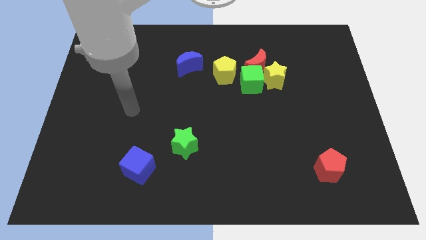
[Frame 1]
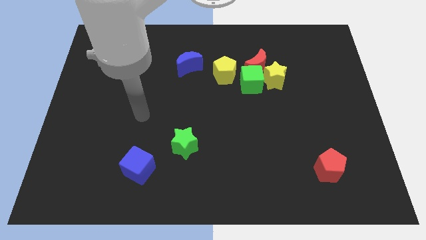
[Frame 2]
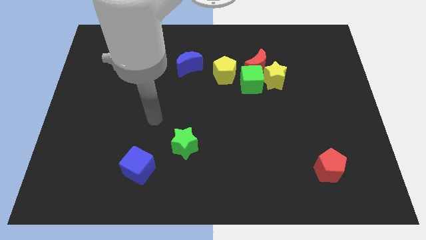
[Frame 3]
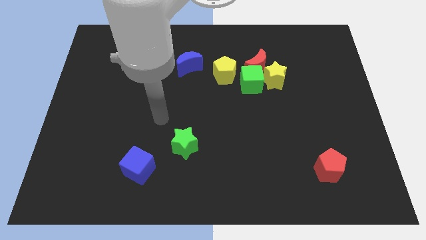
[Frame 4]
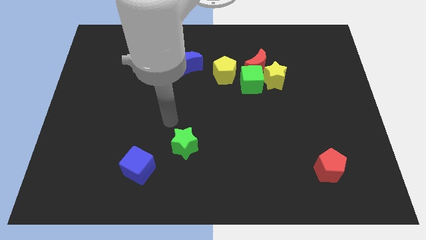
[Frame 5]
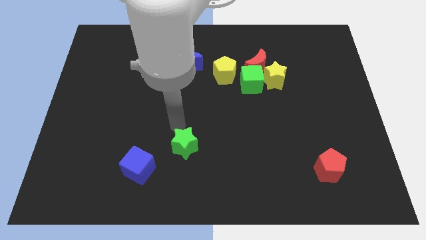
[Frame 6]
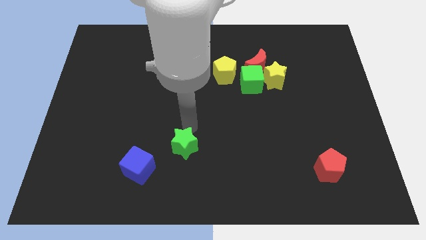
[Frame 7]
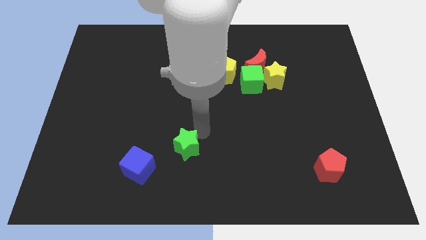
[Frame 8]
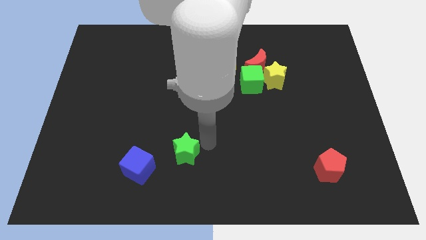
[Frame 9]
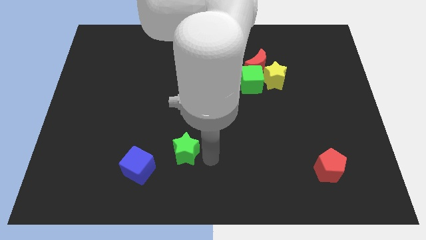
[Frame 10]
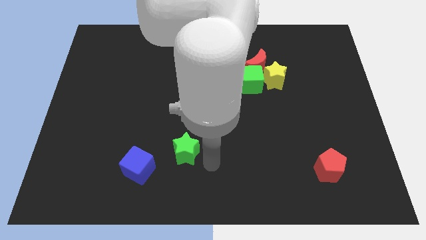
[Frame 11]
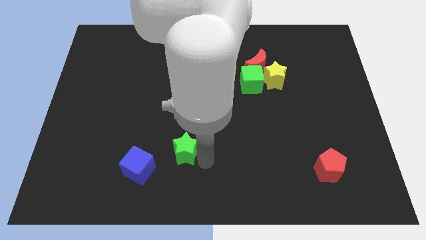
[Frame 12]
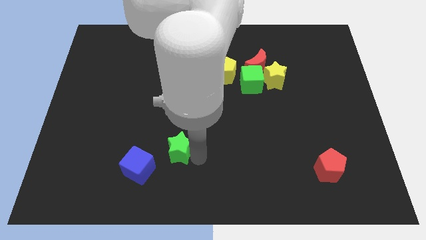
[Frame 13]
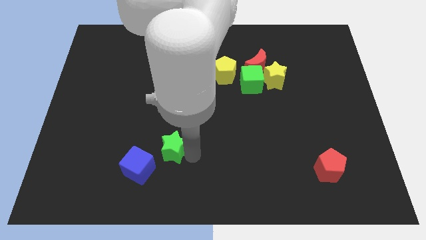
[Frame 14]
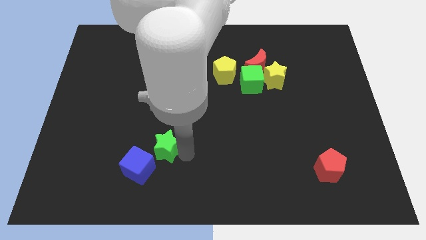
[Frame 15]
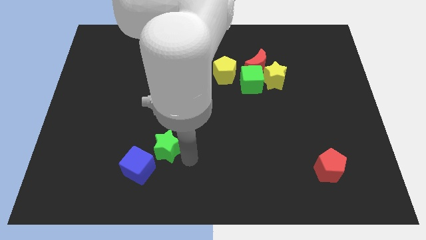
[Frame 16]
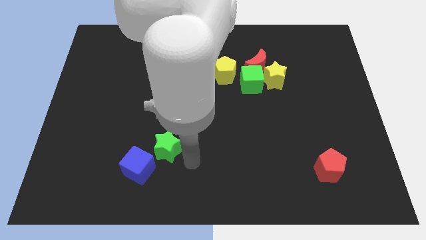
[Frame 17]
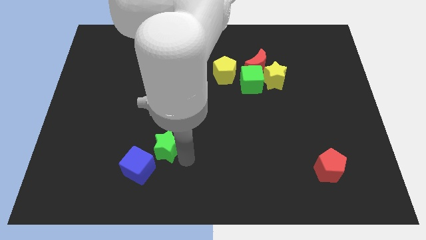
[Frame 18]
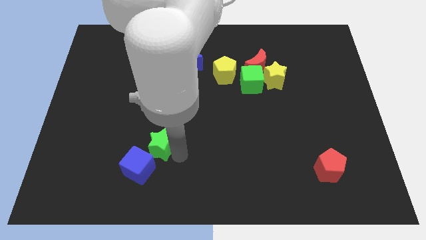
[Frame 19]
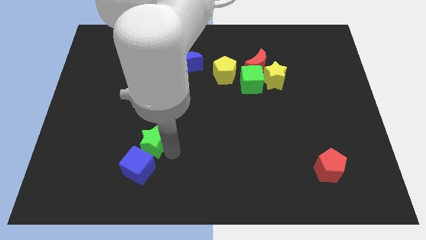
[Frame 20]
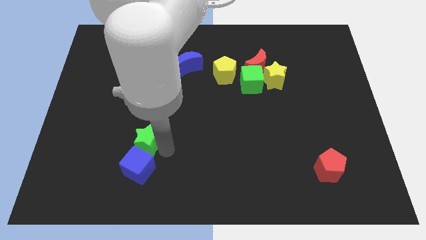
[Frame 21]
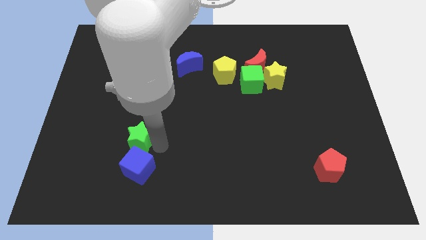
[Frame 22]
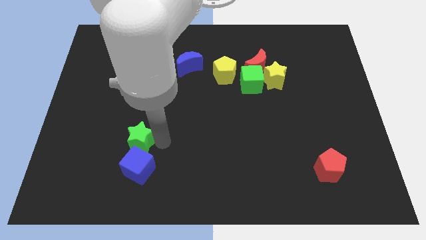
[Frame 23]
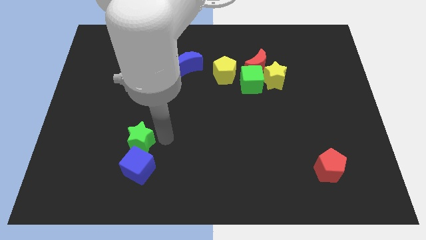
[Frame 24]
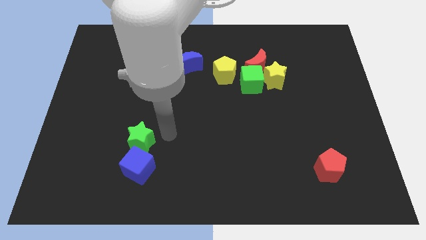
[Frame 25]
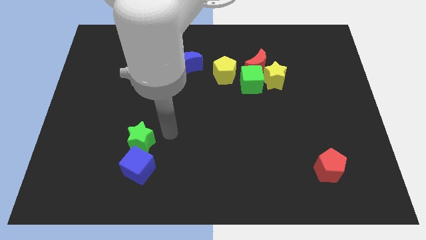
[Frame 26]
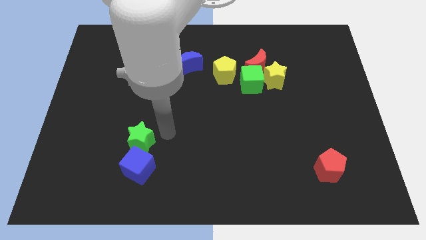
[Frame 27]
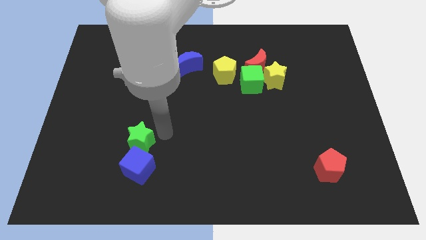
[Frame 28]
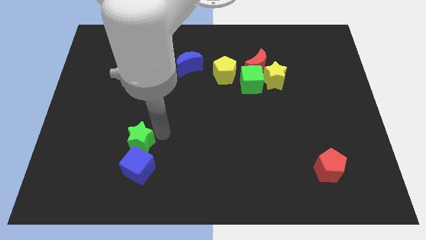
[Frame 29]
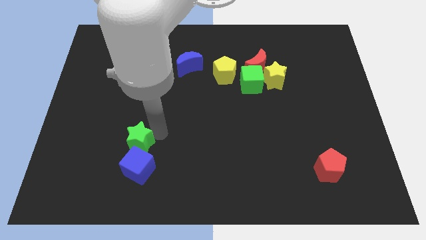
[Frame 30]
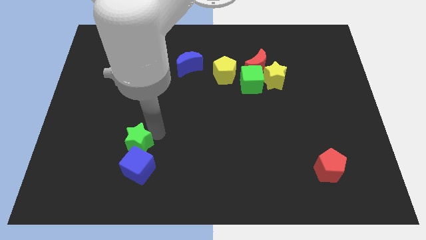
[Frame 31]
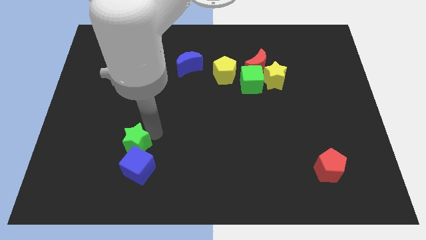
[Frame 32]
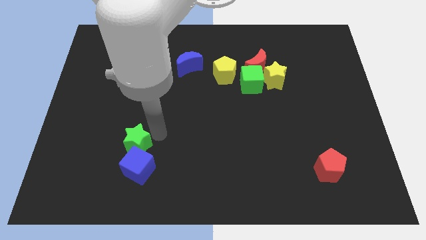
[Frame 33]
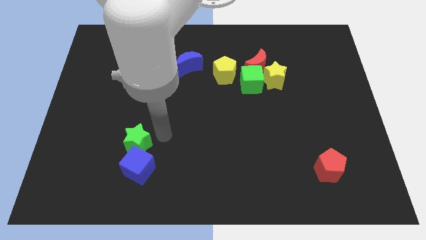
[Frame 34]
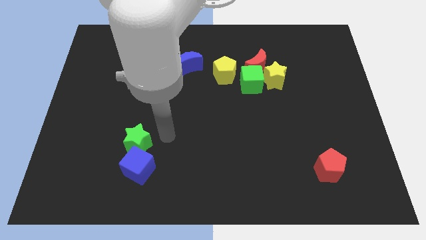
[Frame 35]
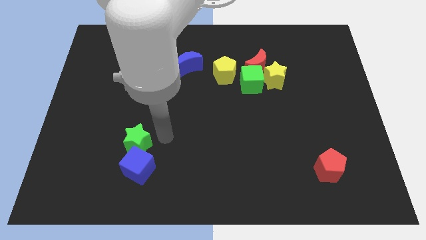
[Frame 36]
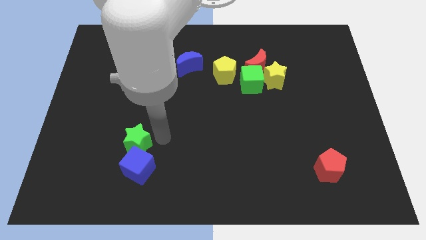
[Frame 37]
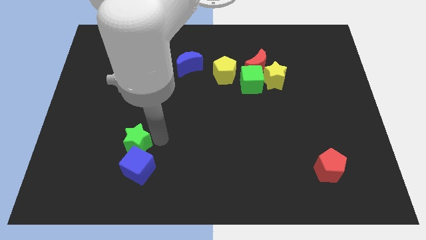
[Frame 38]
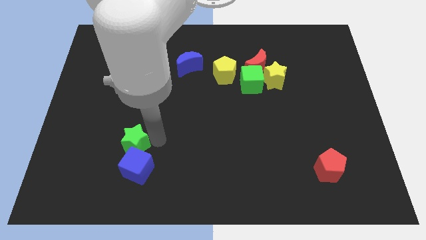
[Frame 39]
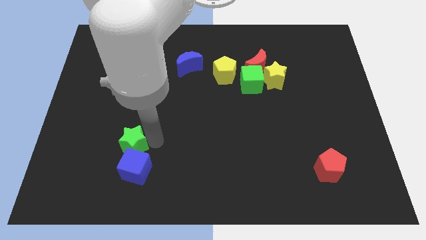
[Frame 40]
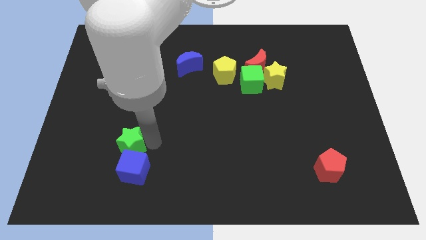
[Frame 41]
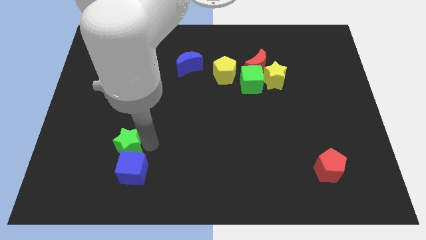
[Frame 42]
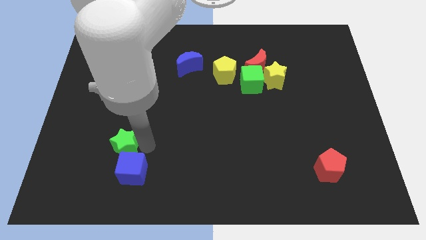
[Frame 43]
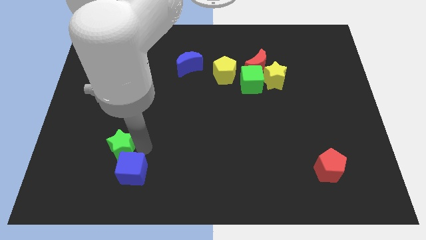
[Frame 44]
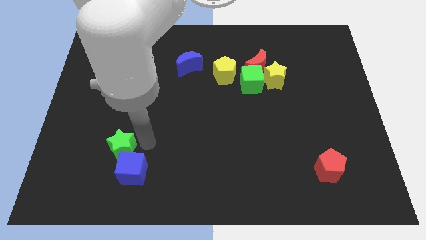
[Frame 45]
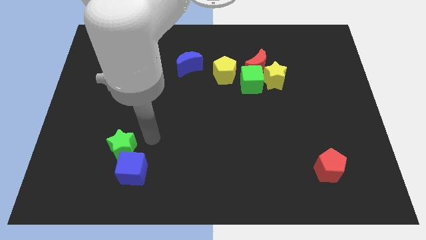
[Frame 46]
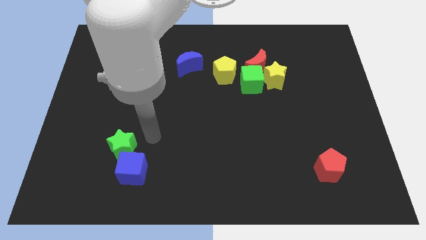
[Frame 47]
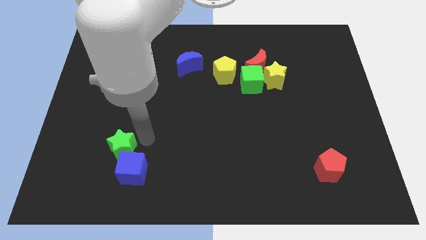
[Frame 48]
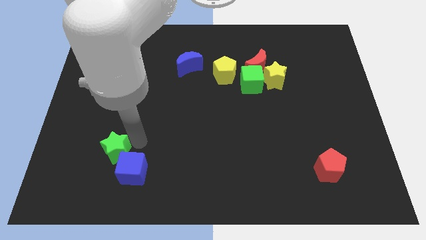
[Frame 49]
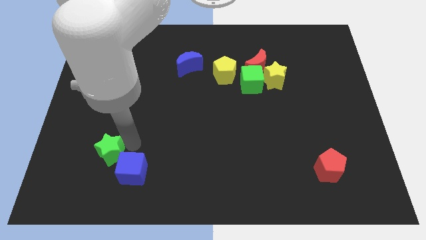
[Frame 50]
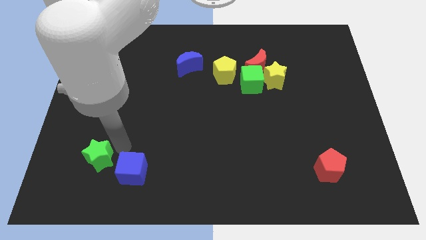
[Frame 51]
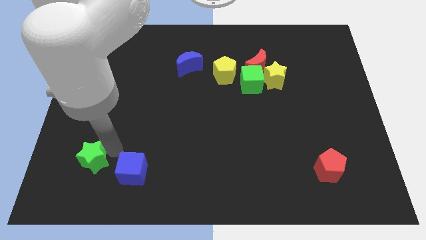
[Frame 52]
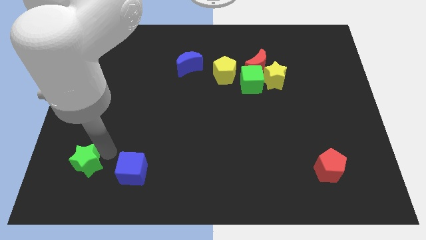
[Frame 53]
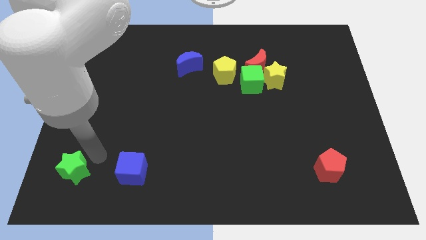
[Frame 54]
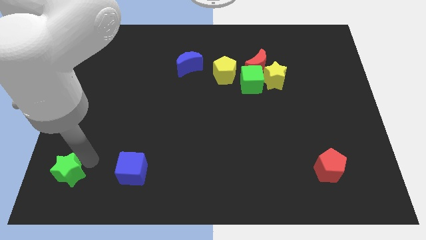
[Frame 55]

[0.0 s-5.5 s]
move the green star to the lower left corner
